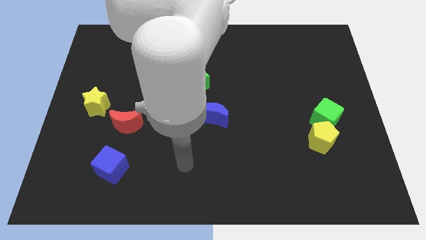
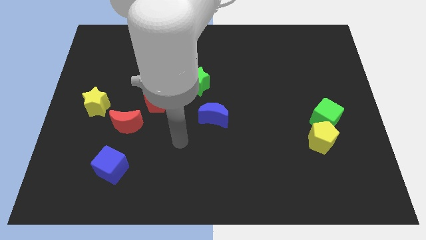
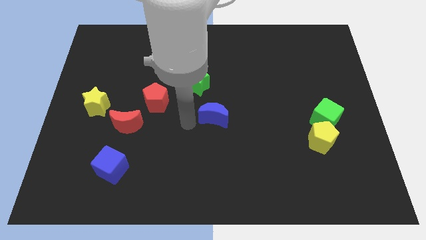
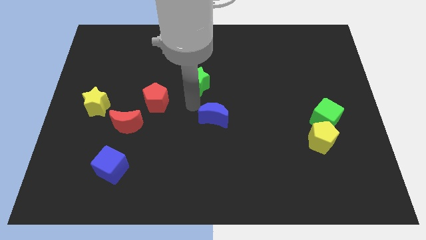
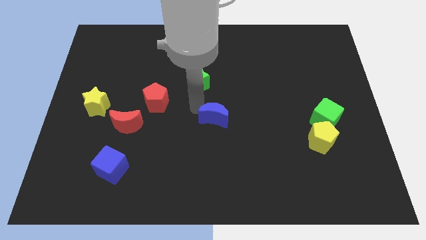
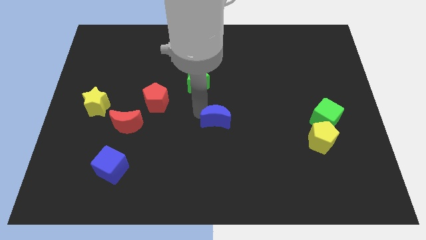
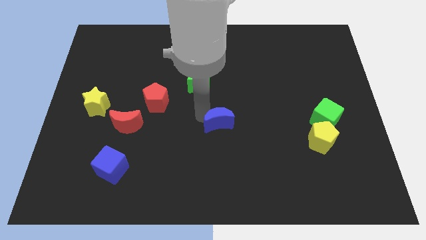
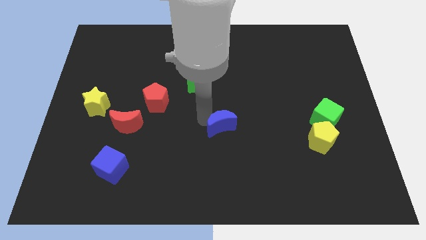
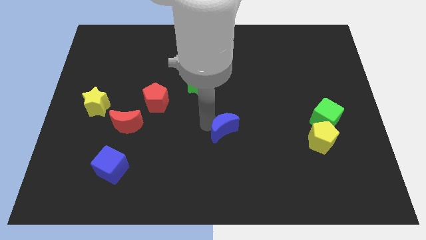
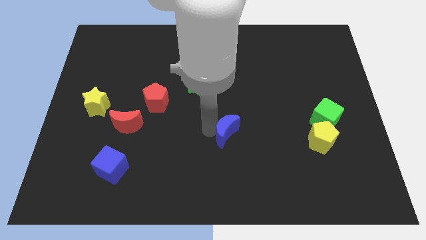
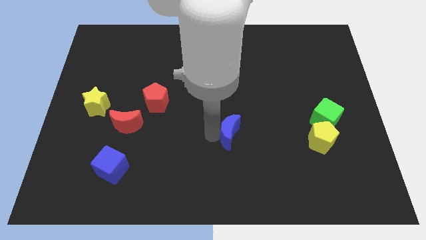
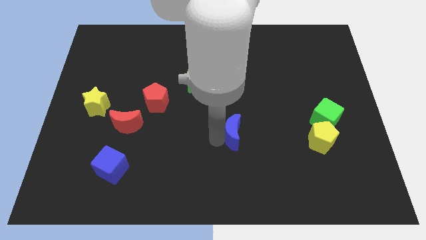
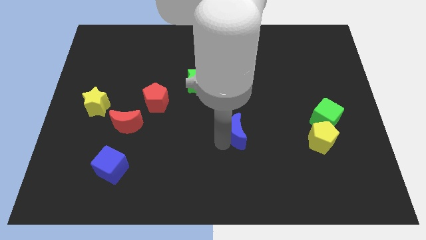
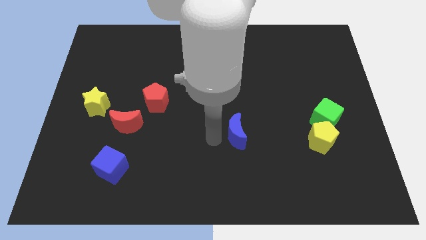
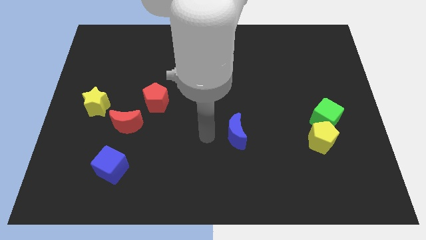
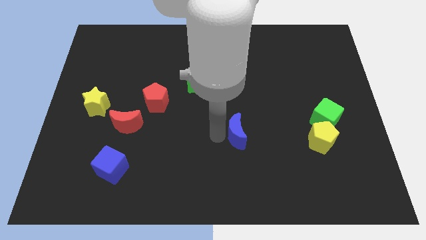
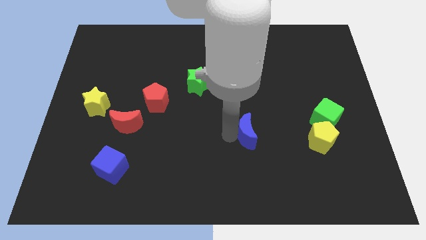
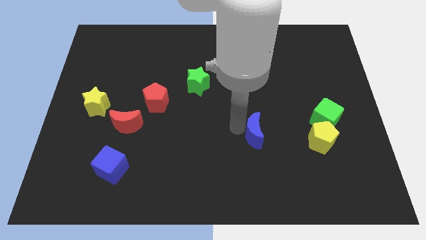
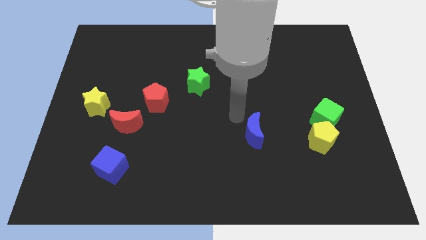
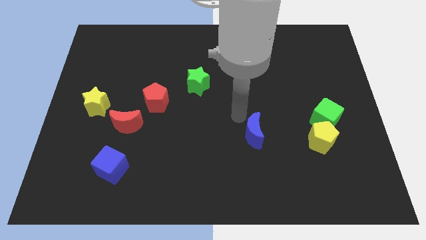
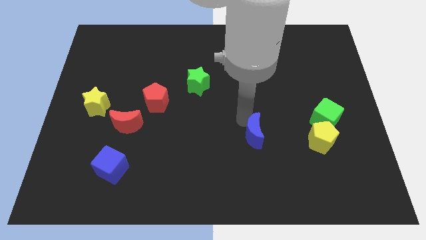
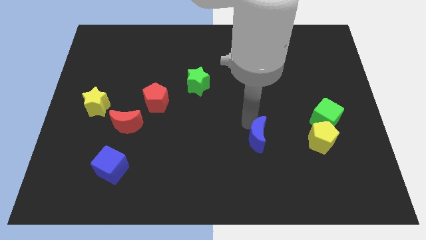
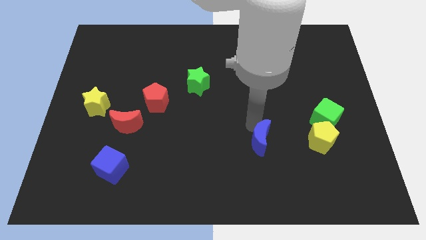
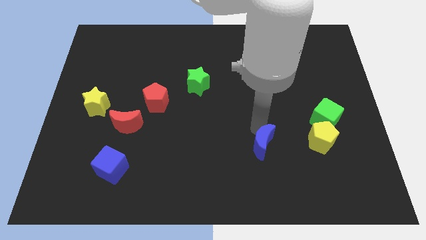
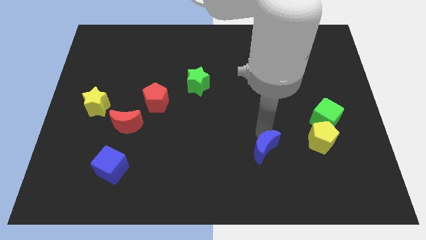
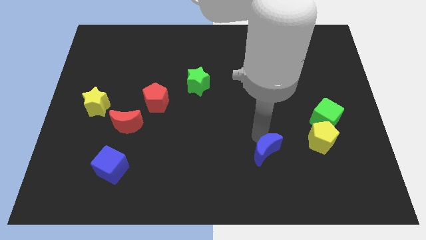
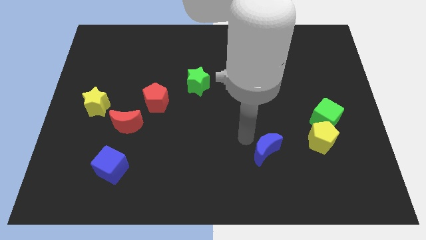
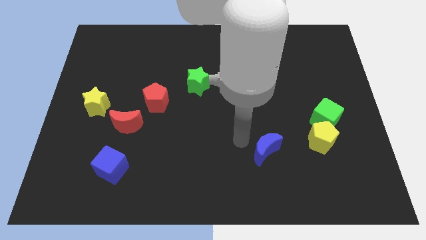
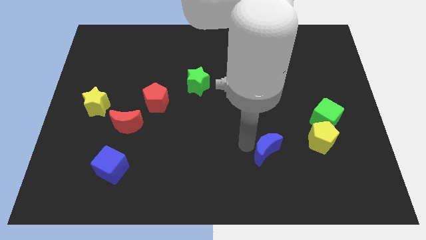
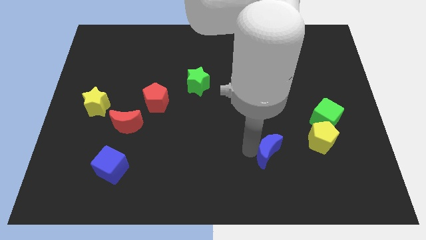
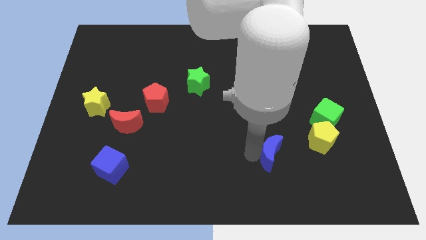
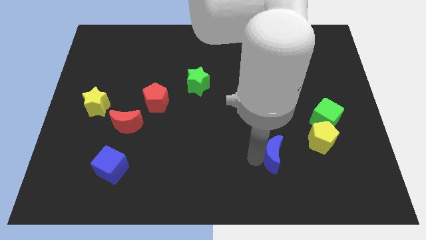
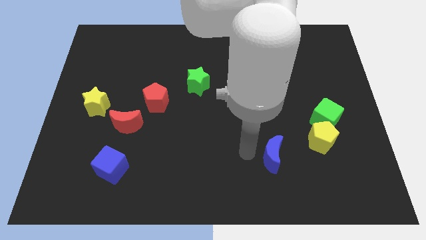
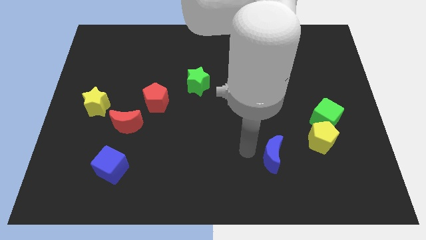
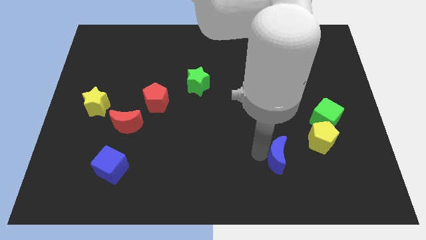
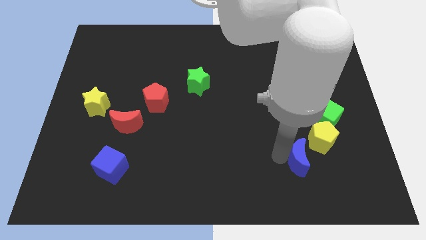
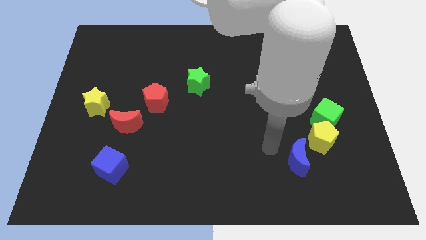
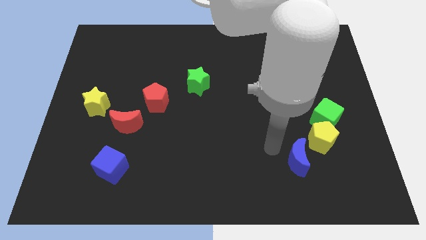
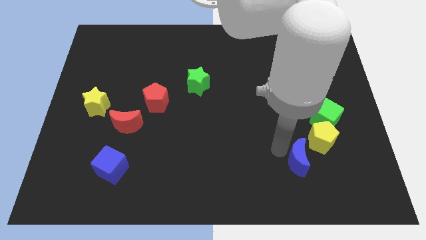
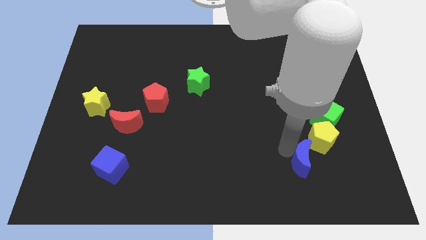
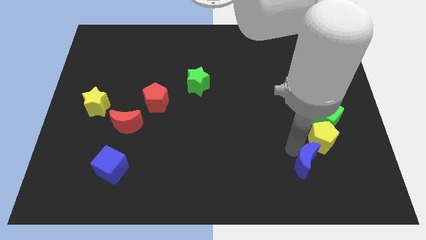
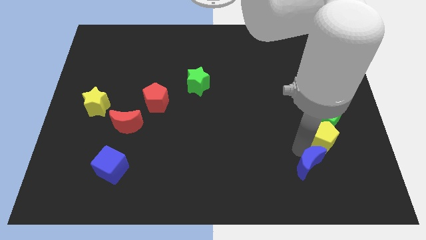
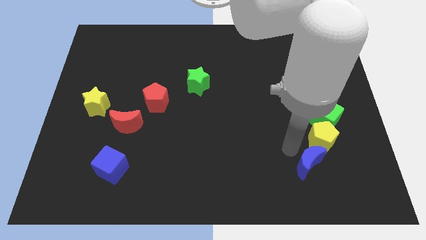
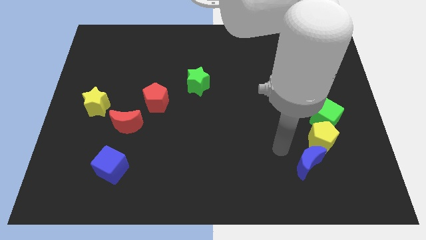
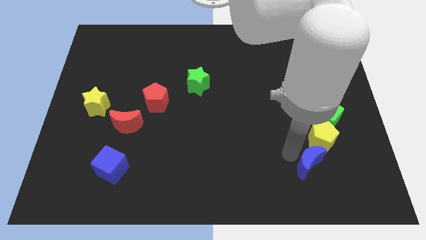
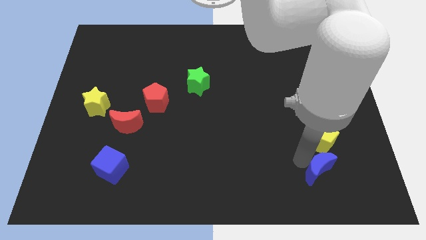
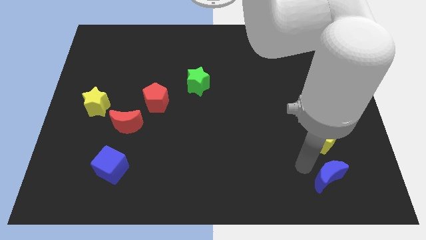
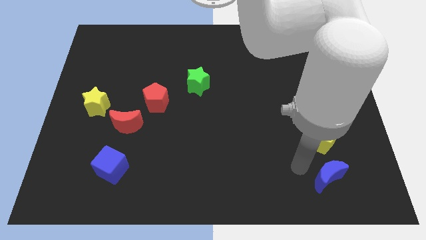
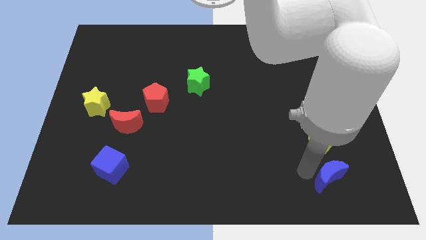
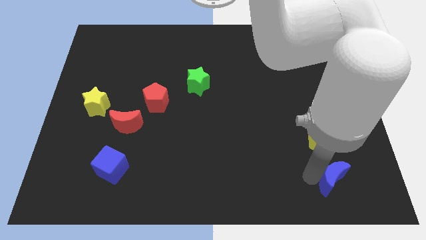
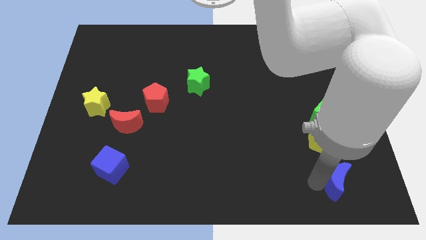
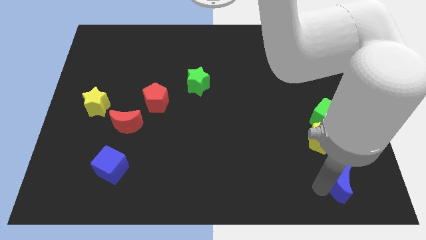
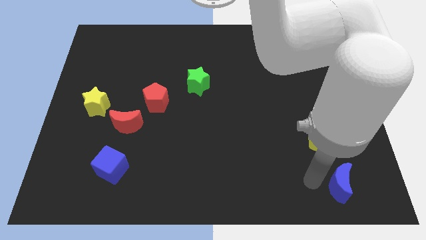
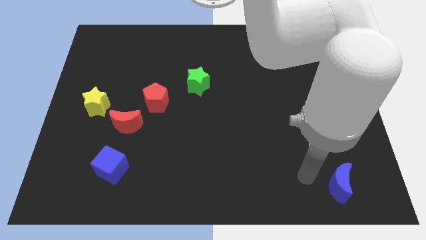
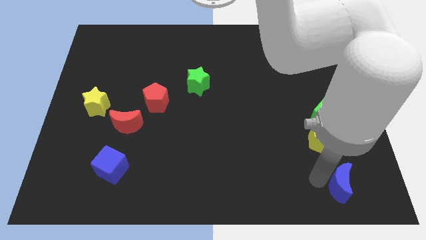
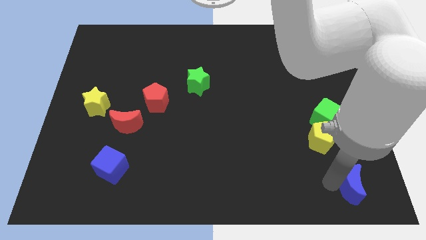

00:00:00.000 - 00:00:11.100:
slide the blue moon to the bottom right

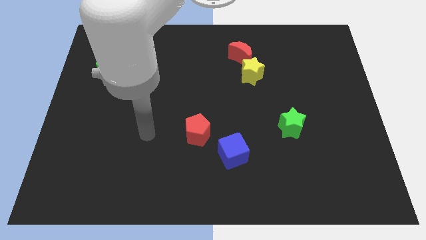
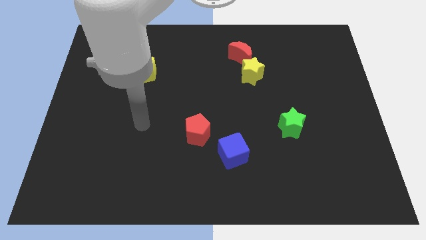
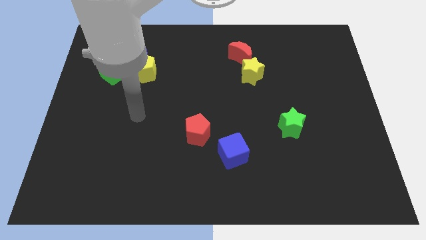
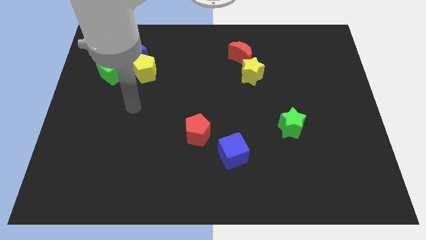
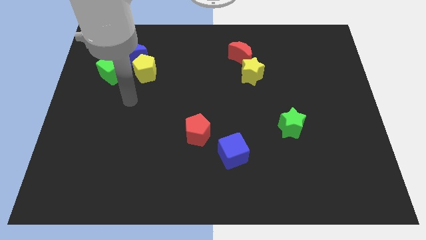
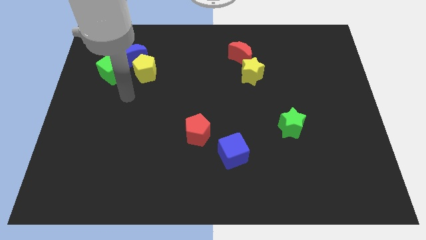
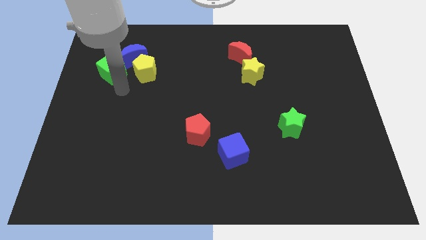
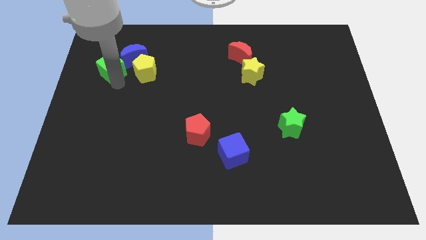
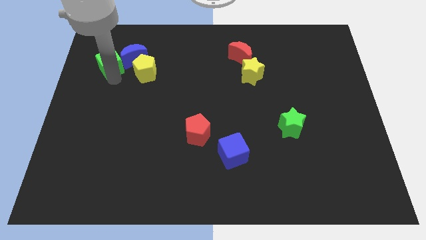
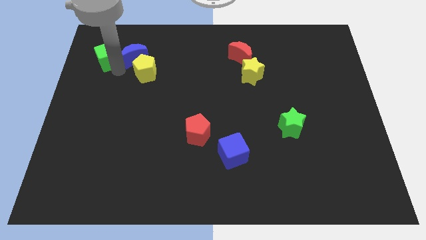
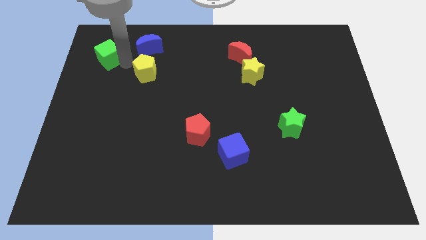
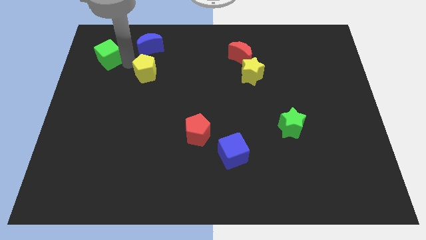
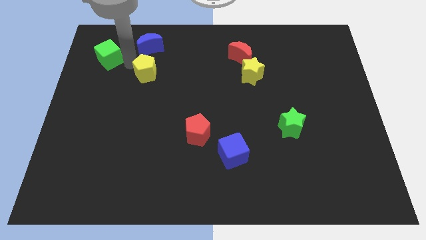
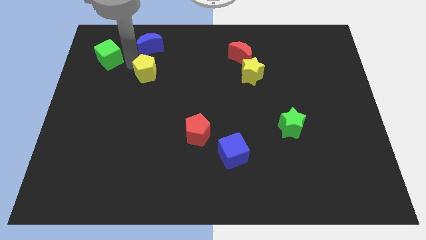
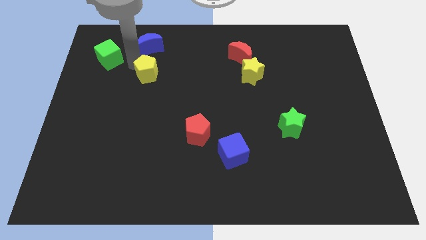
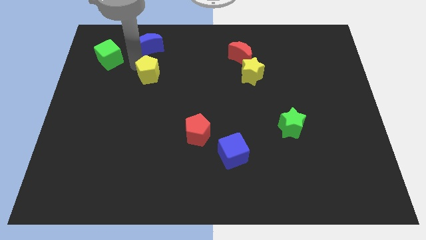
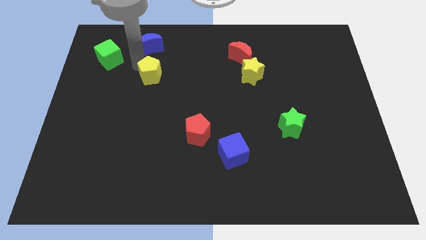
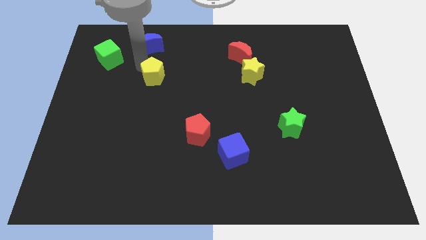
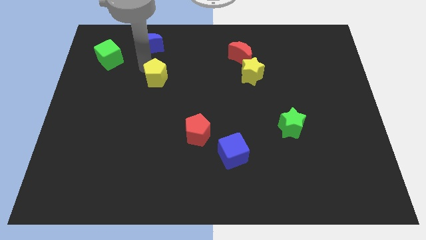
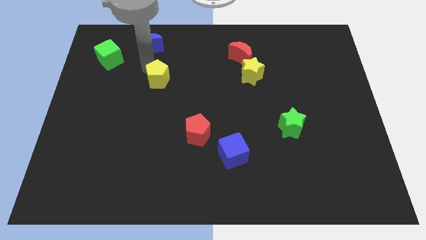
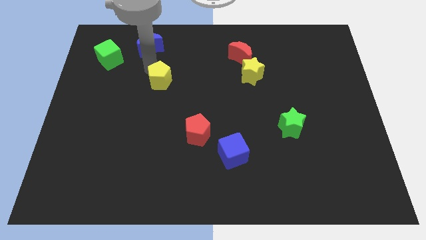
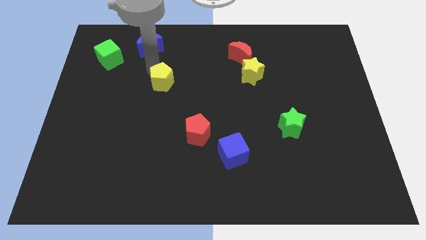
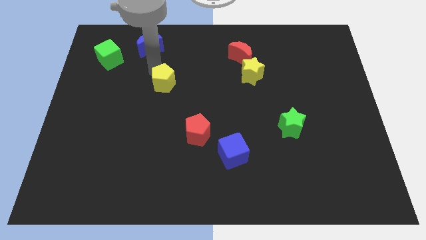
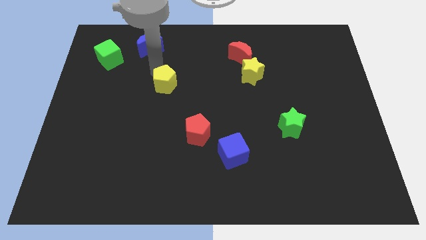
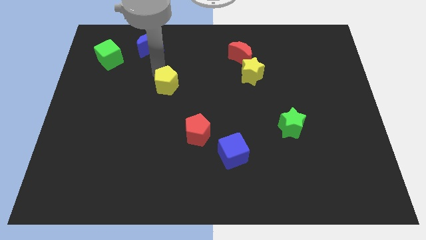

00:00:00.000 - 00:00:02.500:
move the yellow pentagon to the center
